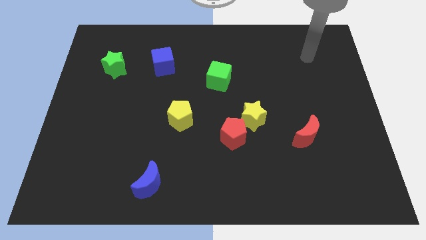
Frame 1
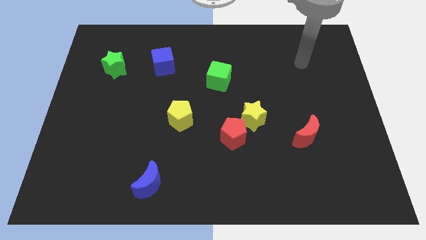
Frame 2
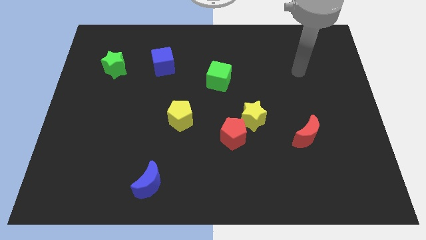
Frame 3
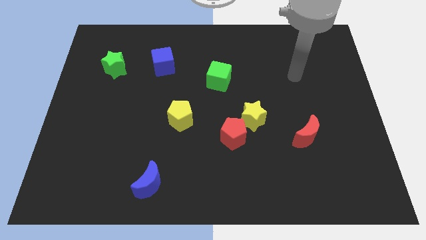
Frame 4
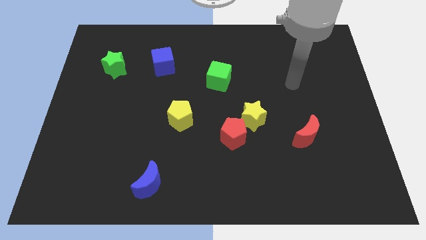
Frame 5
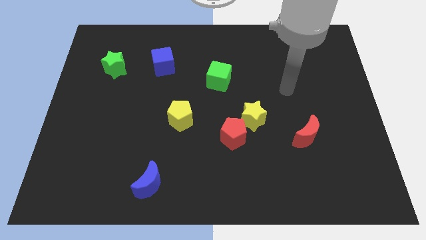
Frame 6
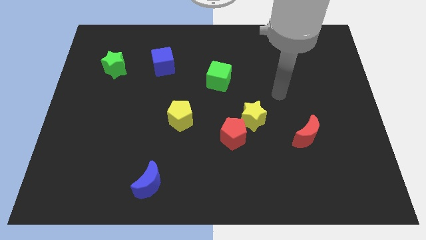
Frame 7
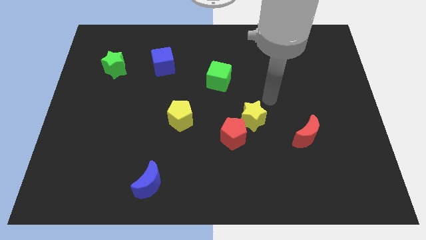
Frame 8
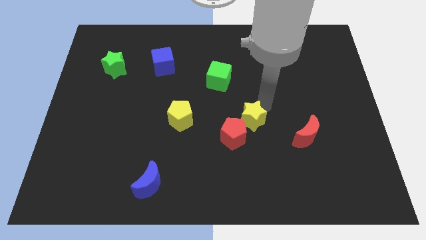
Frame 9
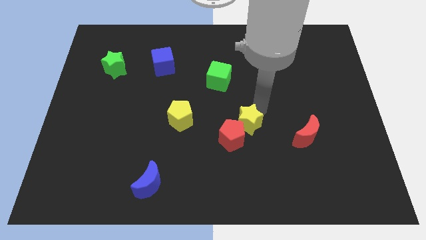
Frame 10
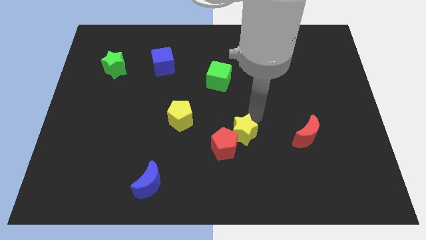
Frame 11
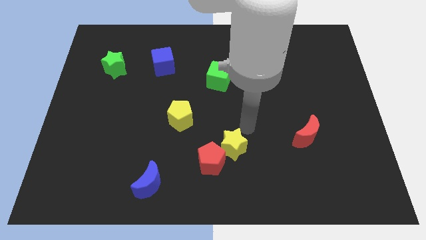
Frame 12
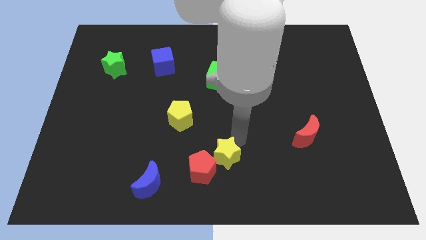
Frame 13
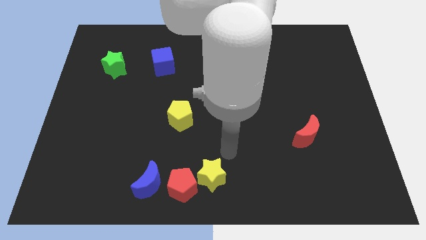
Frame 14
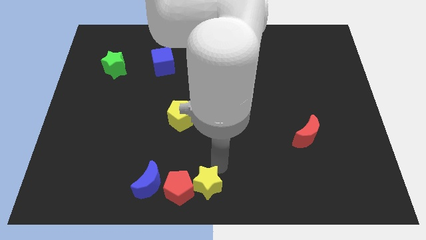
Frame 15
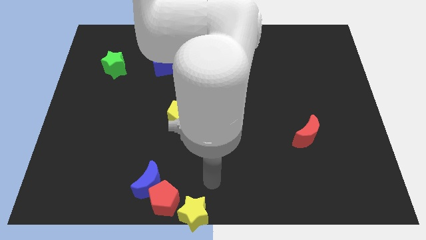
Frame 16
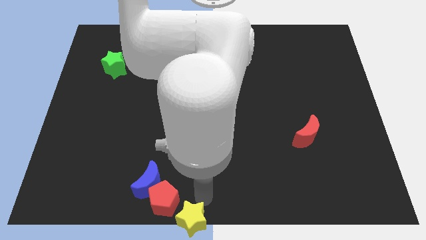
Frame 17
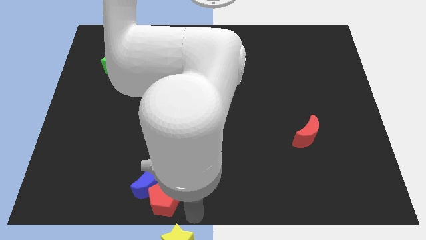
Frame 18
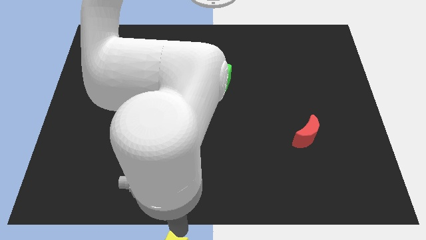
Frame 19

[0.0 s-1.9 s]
move the red pentagon away from the yellow star

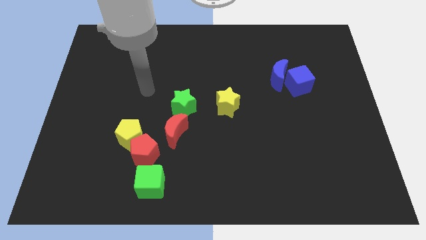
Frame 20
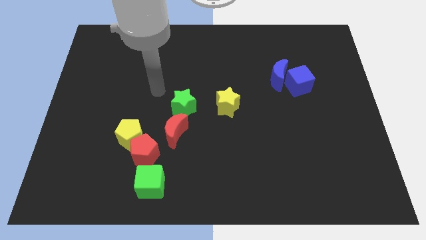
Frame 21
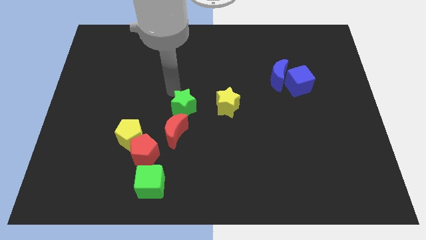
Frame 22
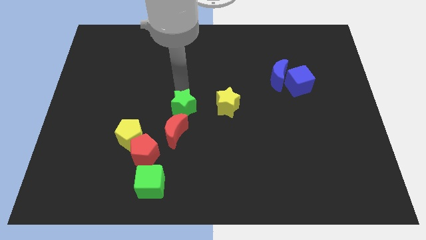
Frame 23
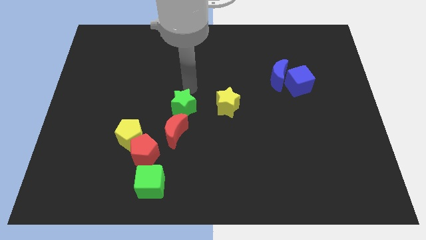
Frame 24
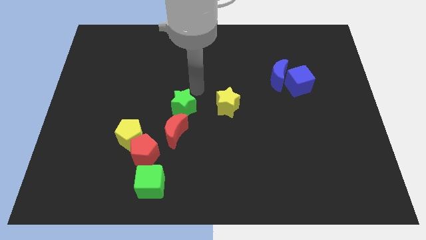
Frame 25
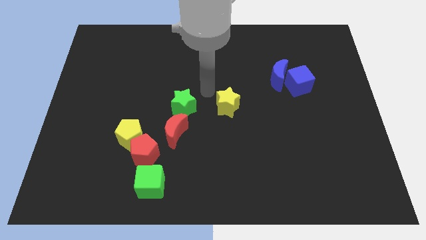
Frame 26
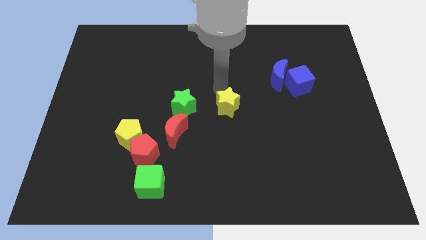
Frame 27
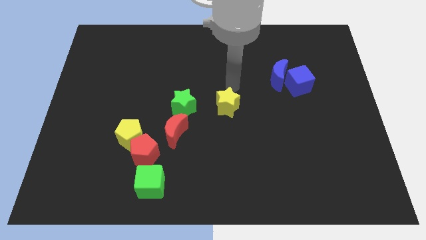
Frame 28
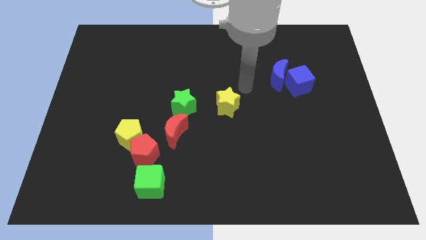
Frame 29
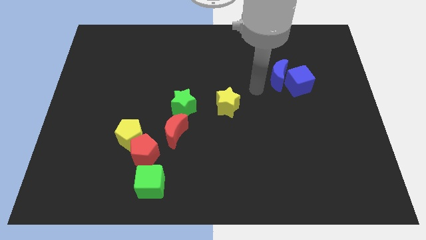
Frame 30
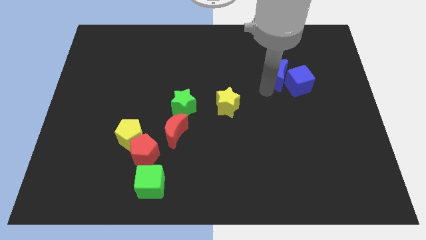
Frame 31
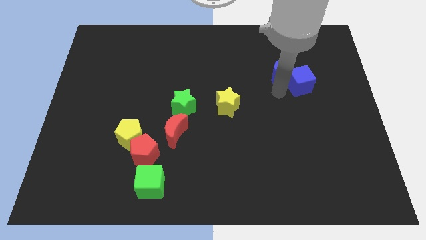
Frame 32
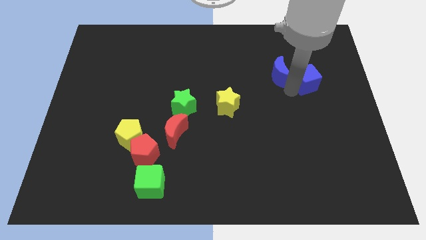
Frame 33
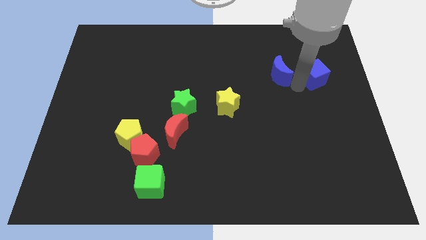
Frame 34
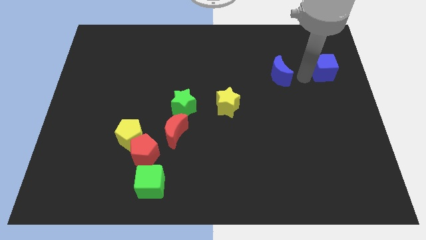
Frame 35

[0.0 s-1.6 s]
separate the blue moon from the blue cube

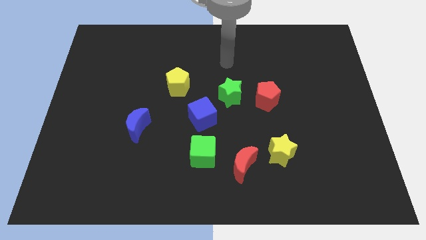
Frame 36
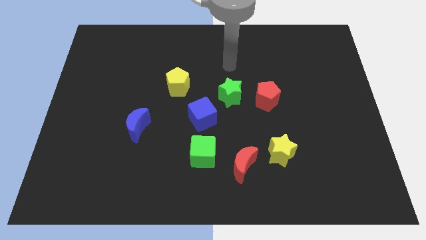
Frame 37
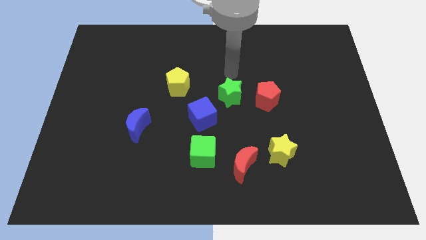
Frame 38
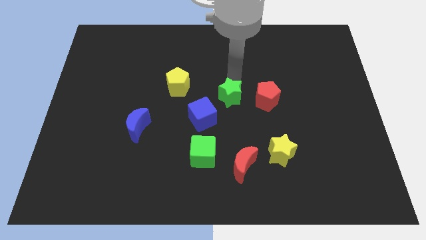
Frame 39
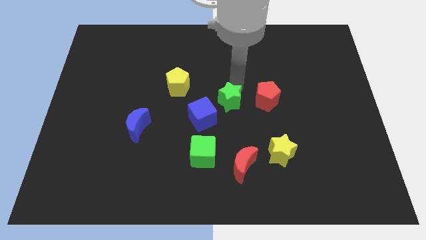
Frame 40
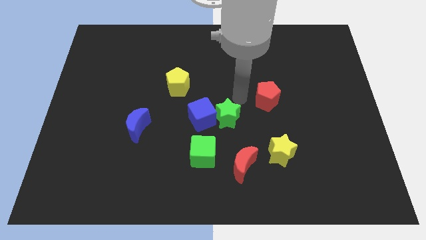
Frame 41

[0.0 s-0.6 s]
separate the red pentagon from the green star

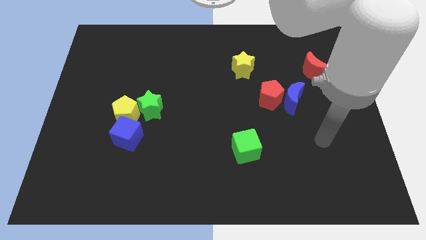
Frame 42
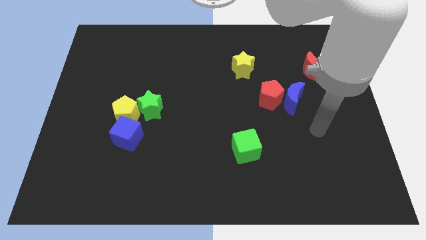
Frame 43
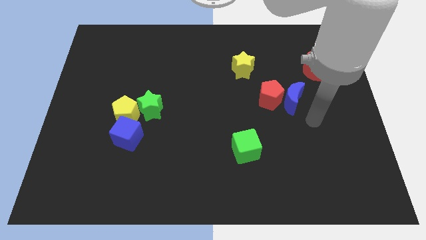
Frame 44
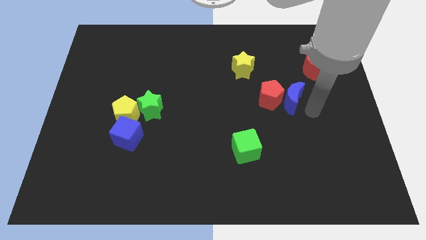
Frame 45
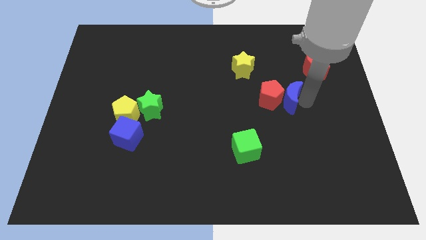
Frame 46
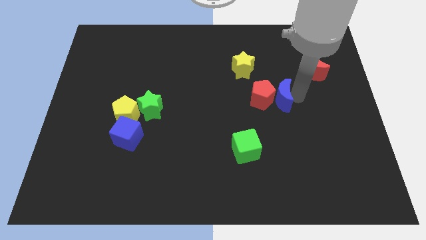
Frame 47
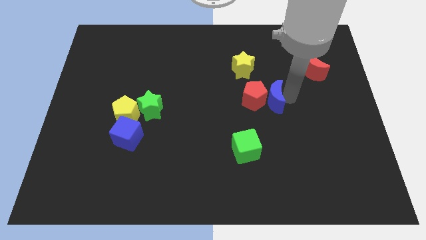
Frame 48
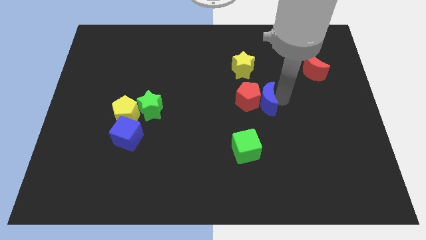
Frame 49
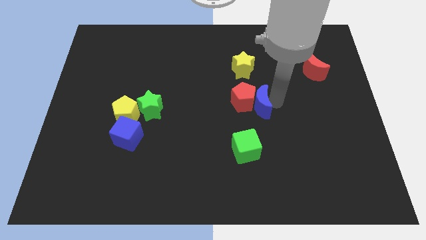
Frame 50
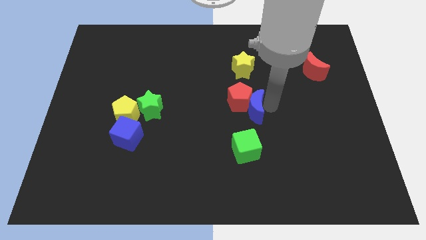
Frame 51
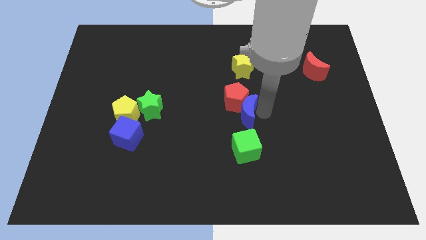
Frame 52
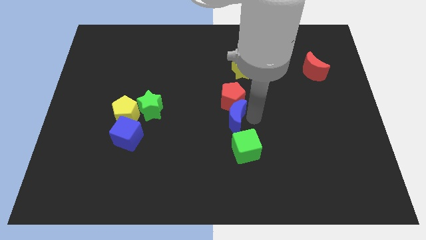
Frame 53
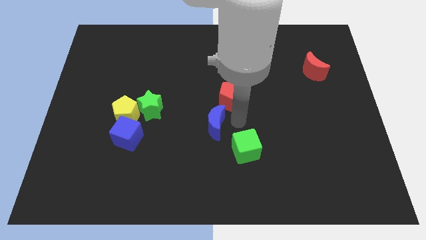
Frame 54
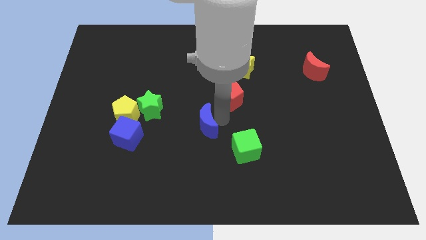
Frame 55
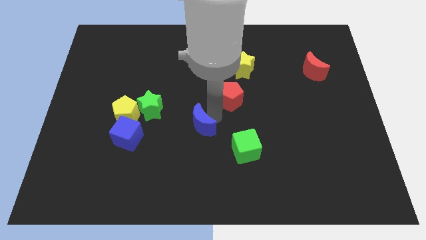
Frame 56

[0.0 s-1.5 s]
move the red pentagon away from the blue moon

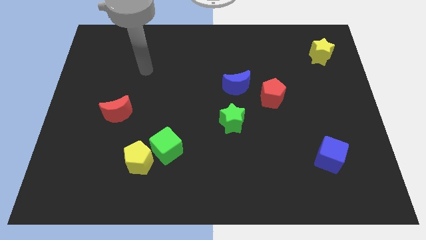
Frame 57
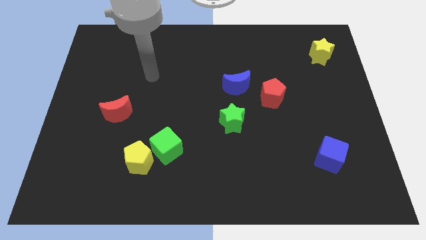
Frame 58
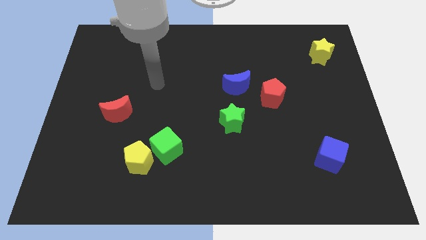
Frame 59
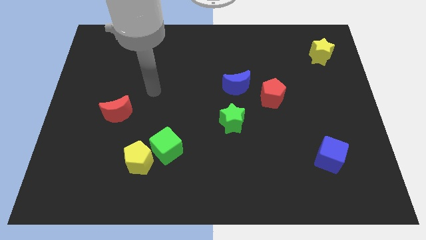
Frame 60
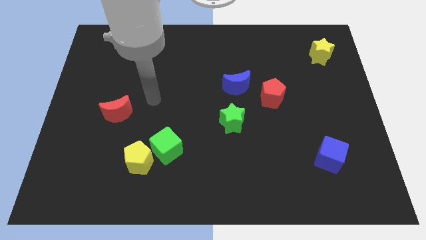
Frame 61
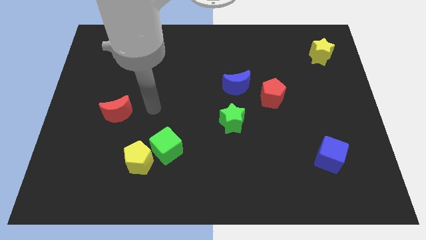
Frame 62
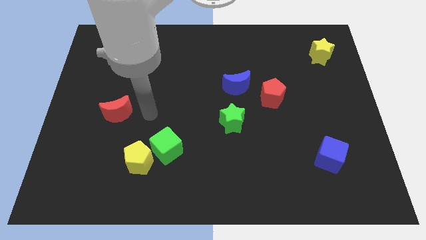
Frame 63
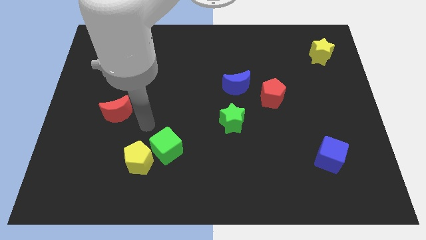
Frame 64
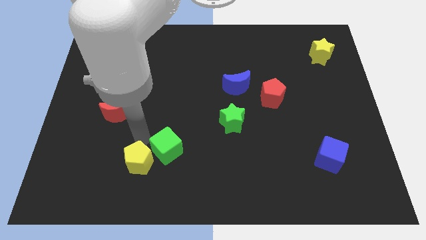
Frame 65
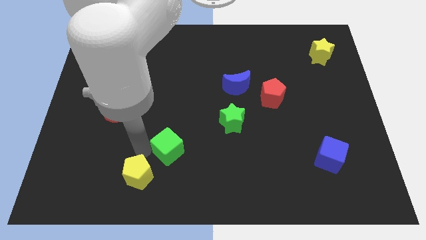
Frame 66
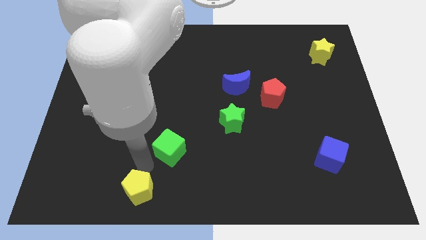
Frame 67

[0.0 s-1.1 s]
move the green cube away from the yellow pentagon

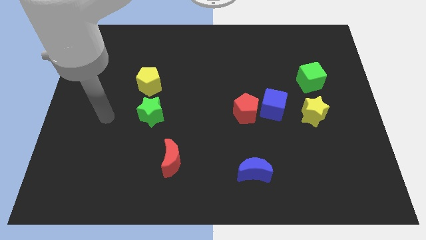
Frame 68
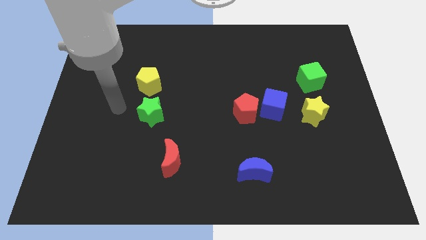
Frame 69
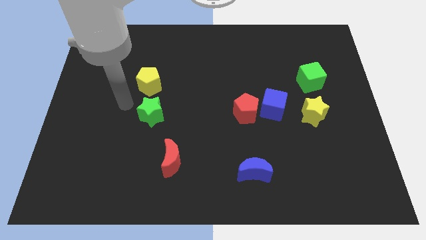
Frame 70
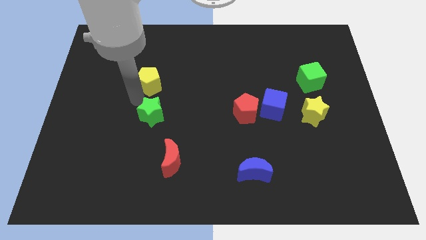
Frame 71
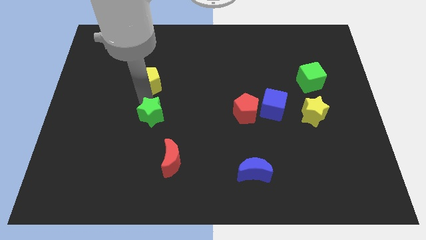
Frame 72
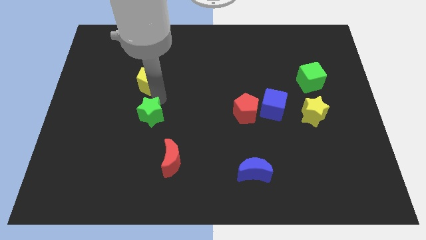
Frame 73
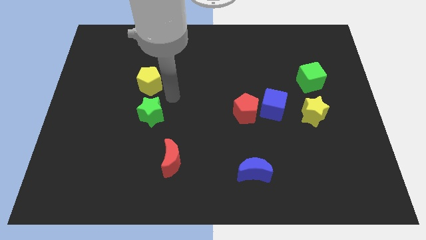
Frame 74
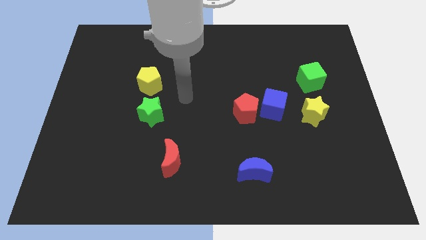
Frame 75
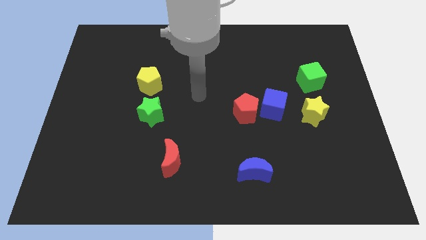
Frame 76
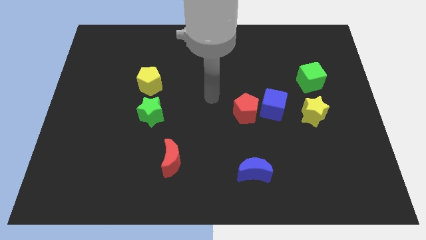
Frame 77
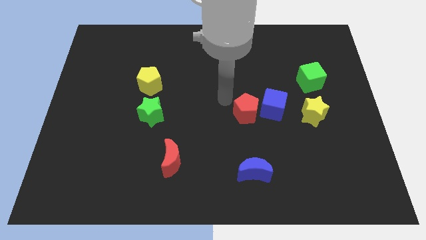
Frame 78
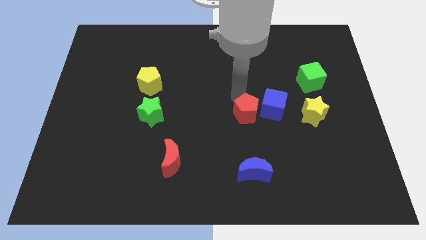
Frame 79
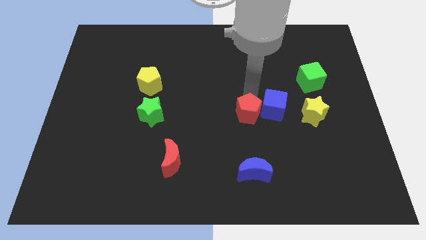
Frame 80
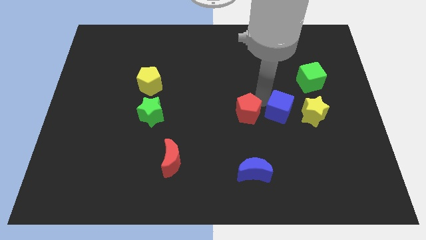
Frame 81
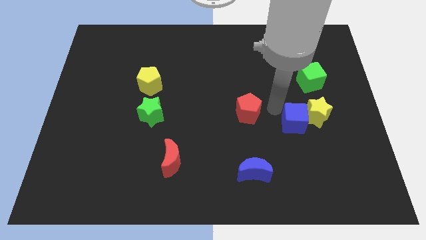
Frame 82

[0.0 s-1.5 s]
pull the red pentagon apart from the blue cube

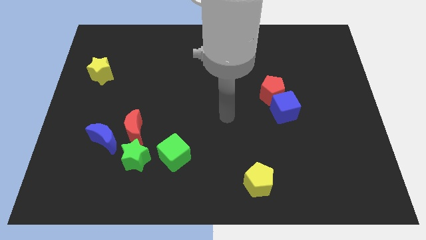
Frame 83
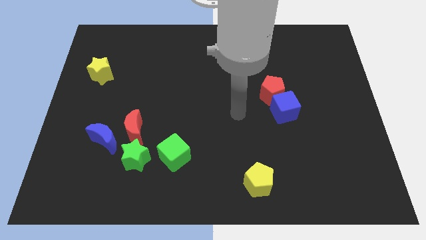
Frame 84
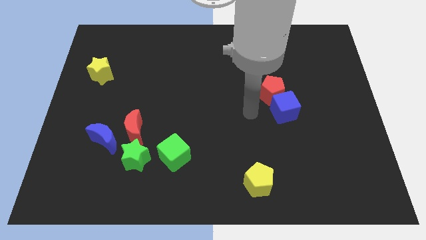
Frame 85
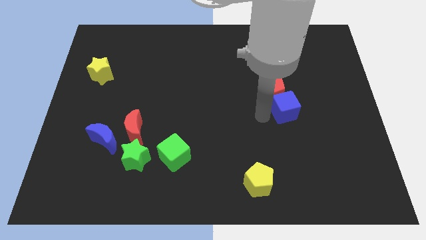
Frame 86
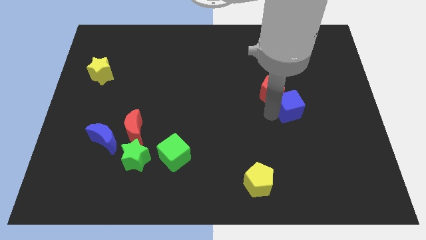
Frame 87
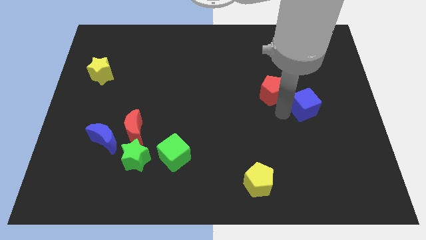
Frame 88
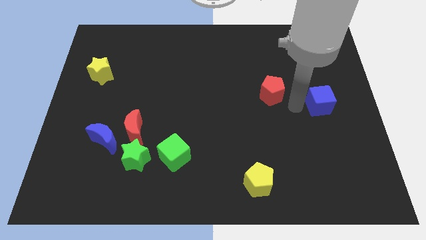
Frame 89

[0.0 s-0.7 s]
separate the red pentagon from the blue cube

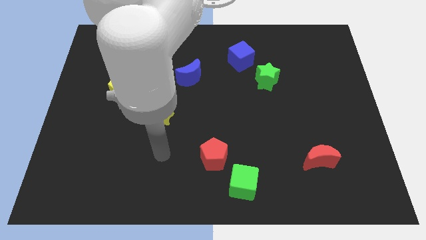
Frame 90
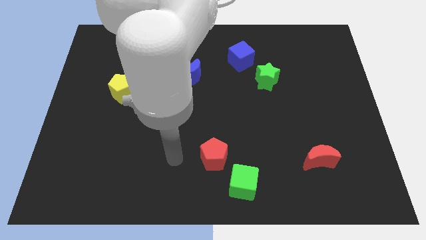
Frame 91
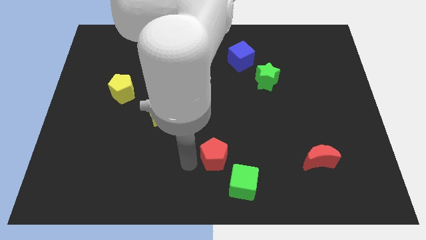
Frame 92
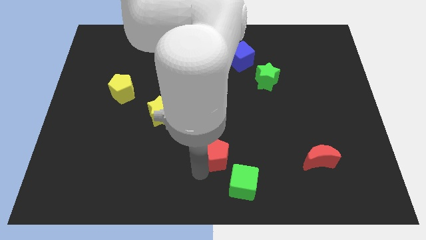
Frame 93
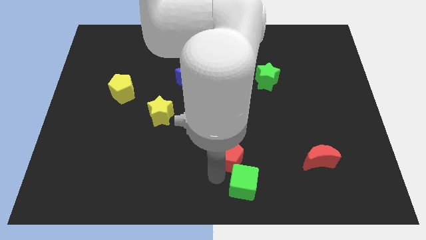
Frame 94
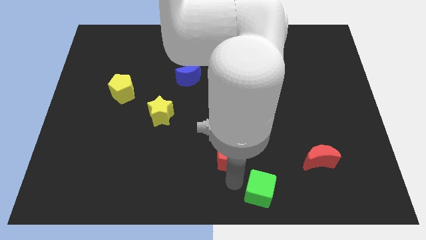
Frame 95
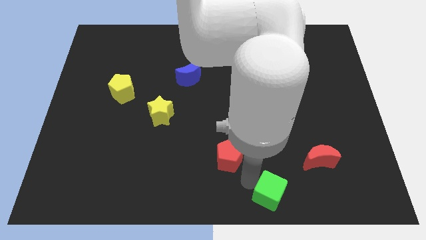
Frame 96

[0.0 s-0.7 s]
pull the red pentagon apart from the green cube
